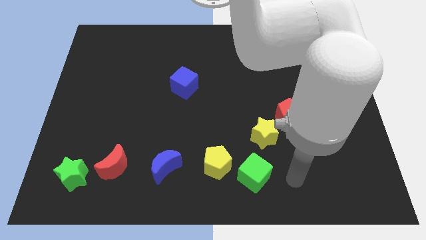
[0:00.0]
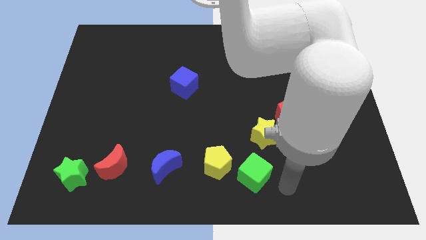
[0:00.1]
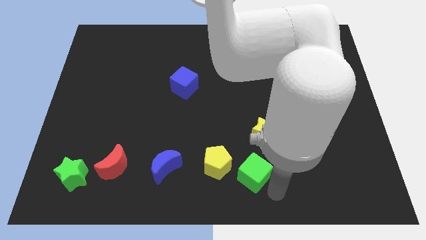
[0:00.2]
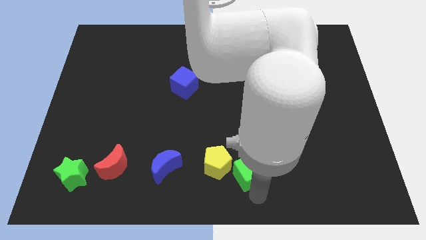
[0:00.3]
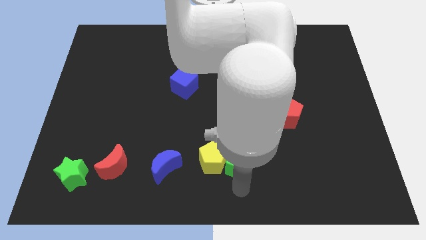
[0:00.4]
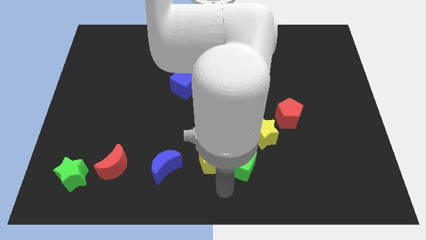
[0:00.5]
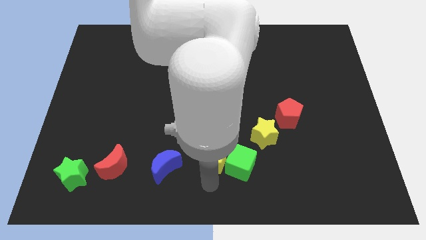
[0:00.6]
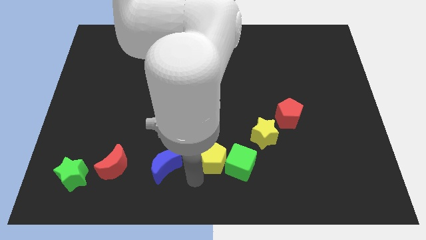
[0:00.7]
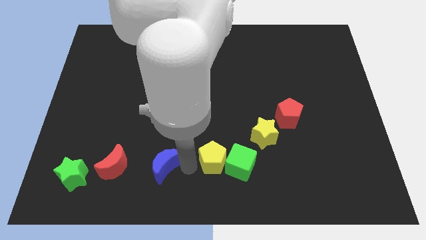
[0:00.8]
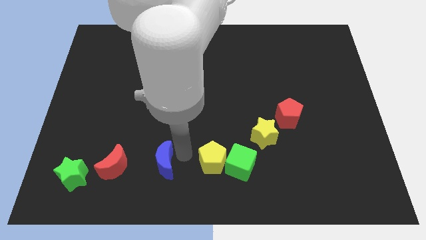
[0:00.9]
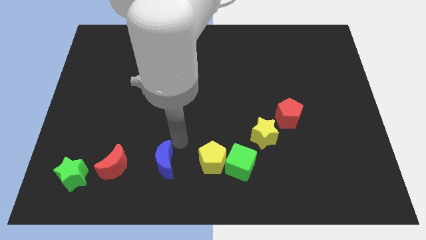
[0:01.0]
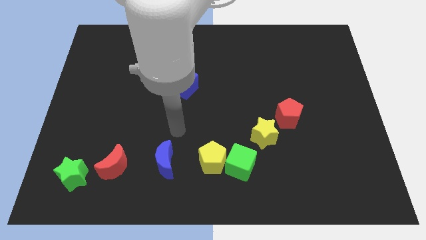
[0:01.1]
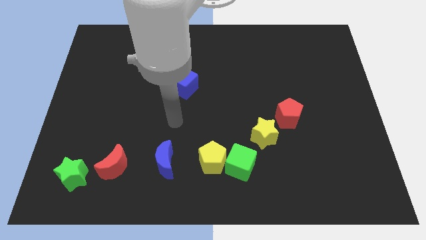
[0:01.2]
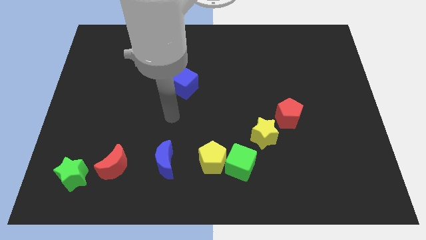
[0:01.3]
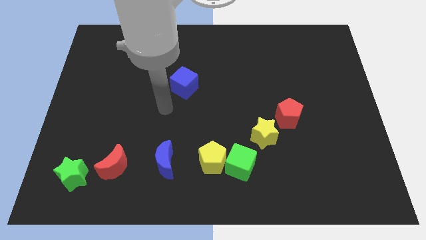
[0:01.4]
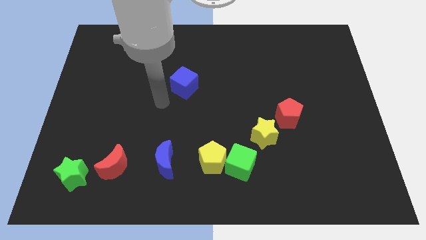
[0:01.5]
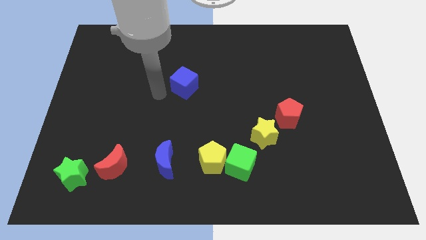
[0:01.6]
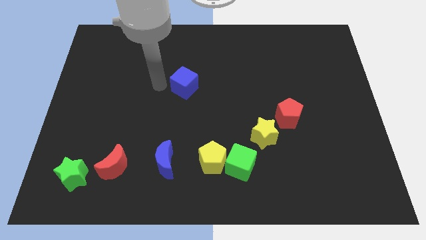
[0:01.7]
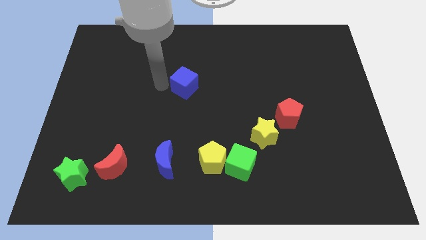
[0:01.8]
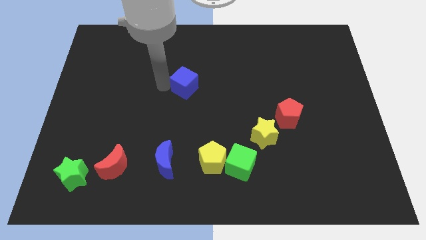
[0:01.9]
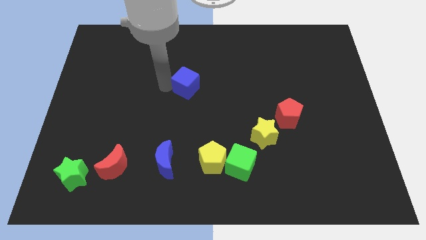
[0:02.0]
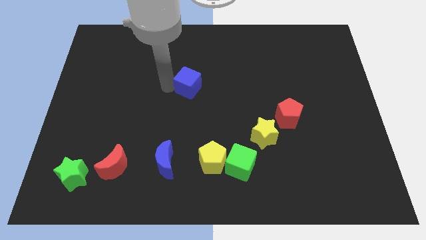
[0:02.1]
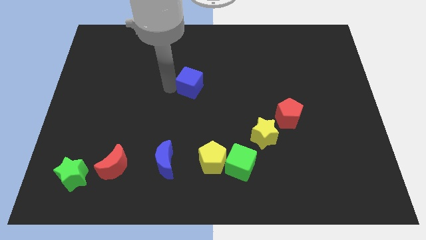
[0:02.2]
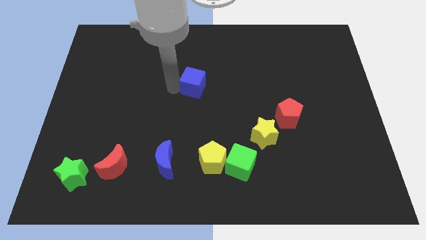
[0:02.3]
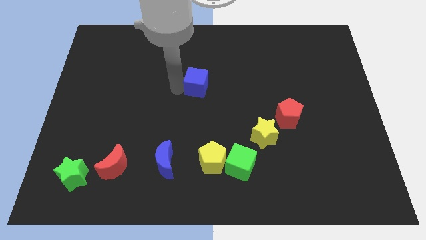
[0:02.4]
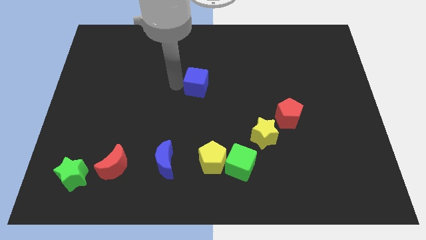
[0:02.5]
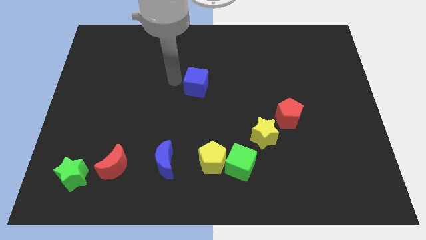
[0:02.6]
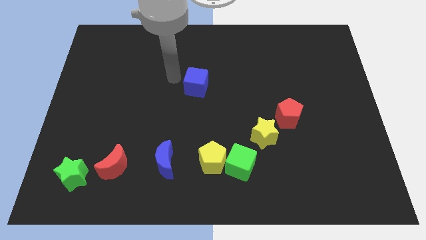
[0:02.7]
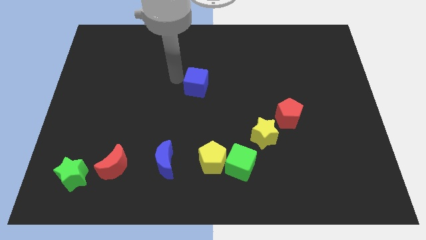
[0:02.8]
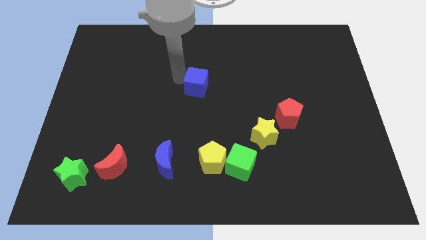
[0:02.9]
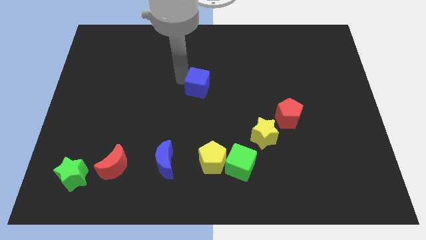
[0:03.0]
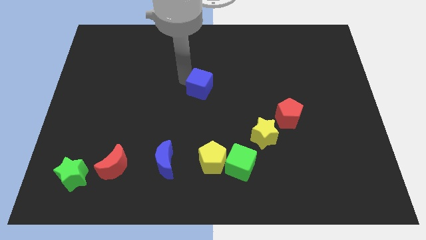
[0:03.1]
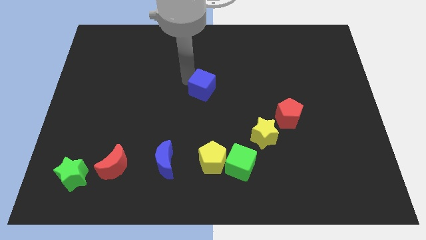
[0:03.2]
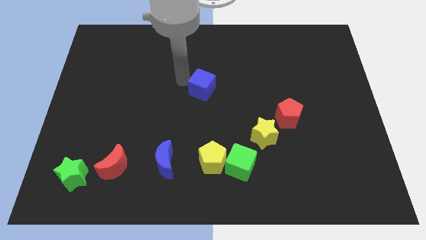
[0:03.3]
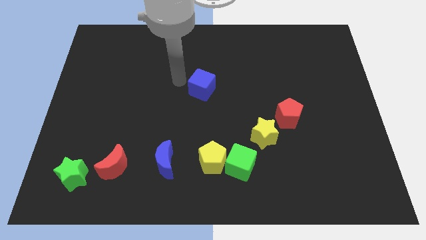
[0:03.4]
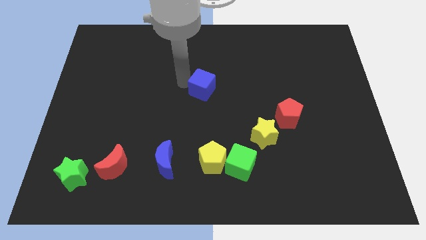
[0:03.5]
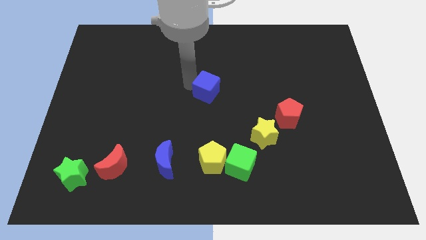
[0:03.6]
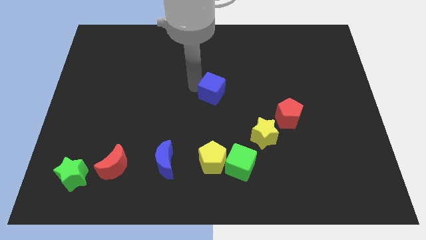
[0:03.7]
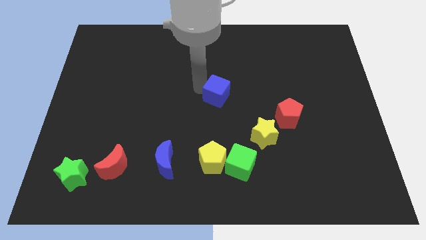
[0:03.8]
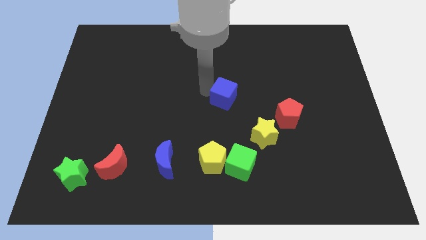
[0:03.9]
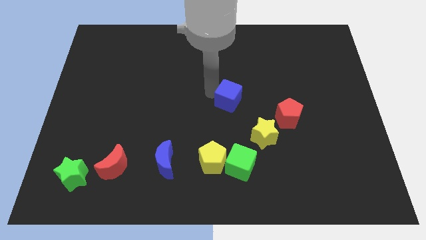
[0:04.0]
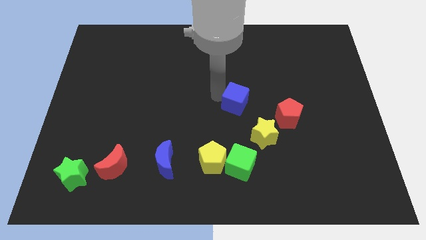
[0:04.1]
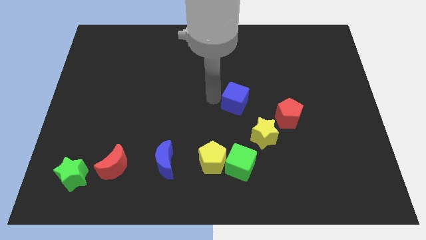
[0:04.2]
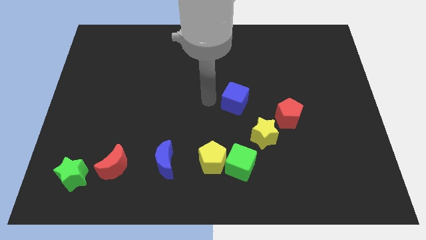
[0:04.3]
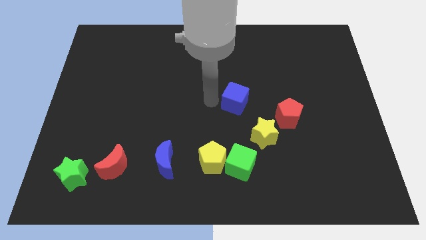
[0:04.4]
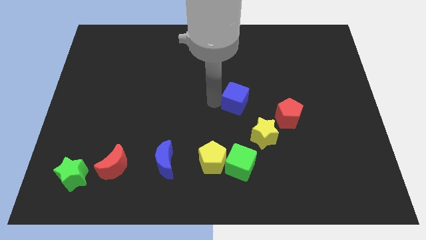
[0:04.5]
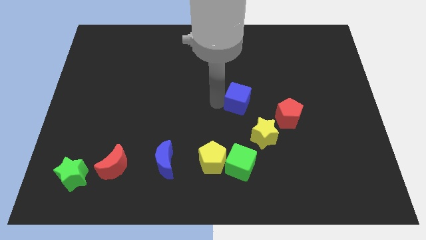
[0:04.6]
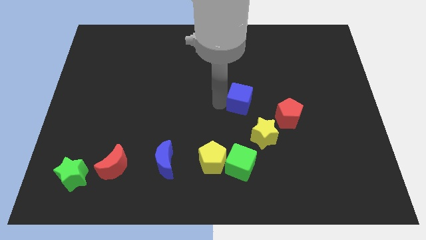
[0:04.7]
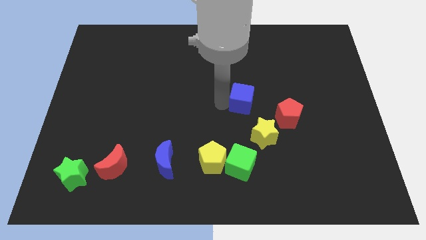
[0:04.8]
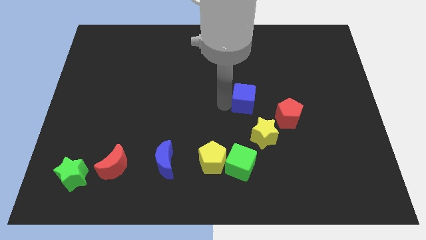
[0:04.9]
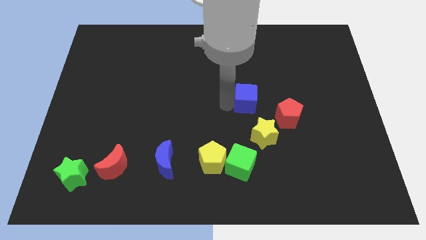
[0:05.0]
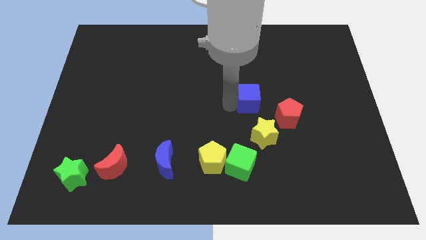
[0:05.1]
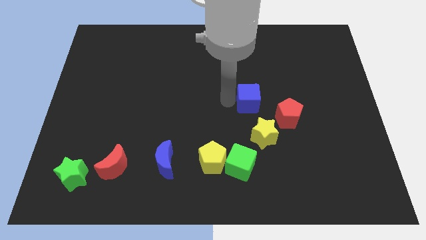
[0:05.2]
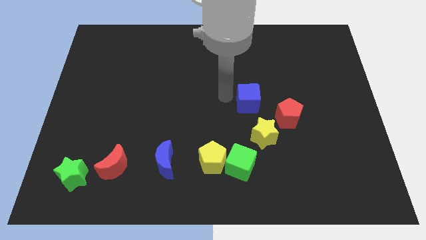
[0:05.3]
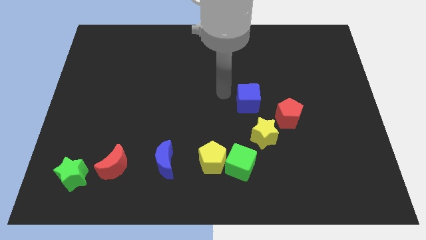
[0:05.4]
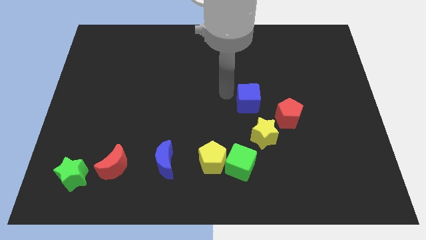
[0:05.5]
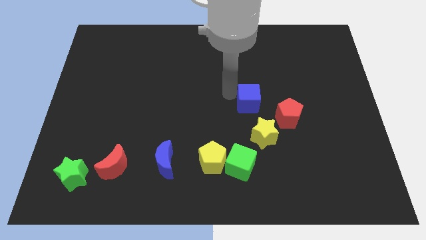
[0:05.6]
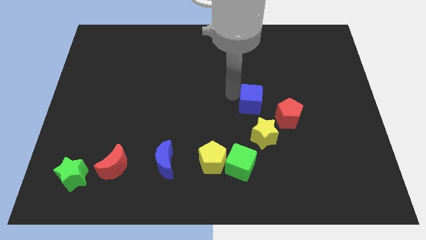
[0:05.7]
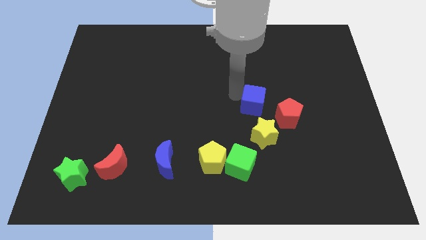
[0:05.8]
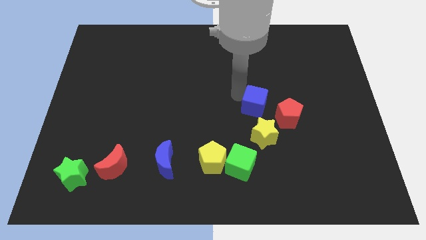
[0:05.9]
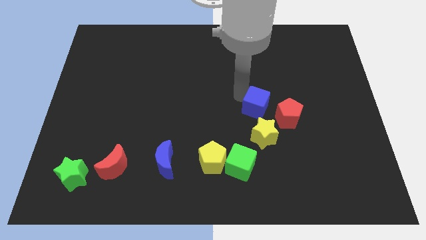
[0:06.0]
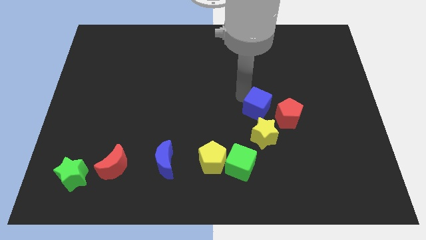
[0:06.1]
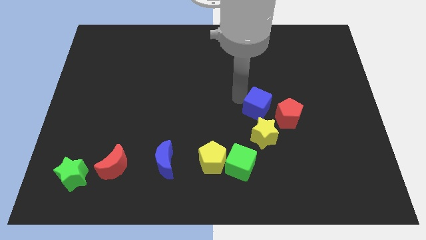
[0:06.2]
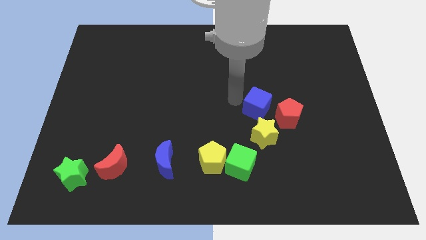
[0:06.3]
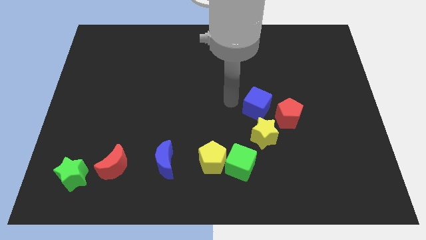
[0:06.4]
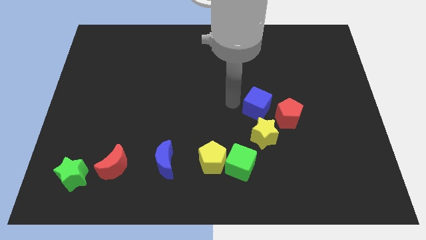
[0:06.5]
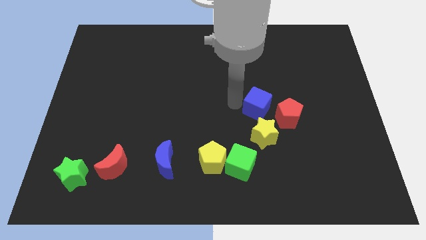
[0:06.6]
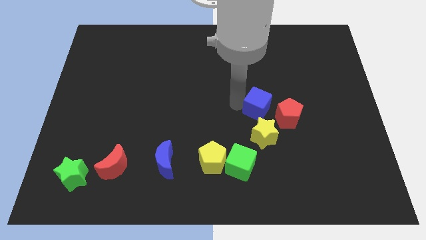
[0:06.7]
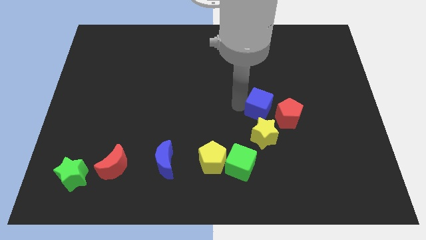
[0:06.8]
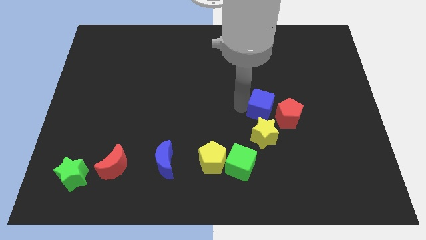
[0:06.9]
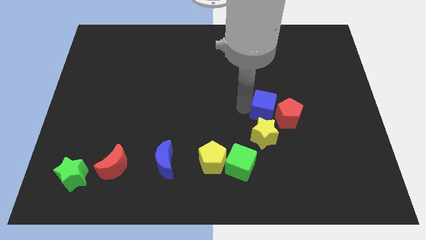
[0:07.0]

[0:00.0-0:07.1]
put the blue cube close to the red pentagon
